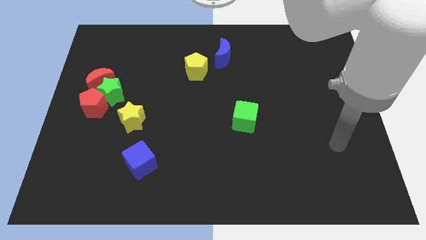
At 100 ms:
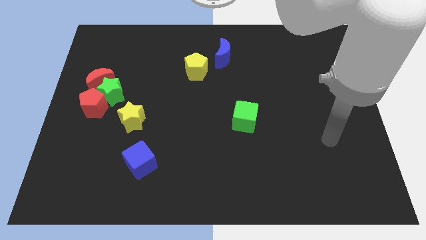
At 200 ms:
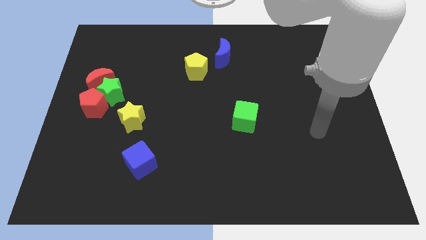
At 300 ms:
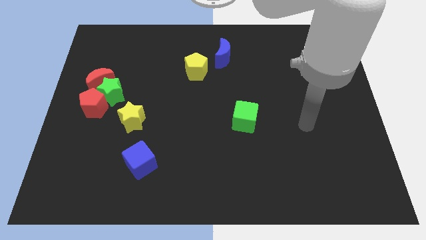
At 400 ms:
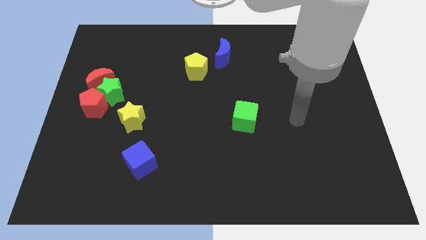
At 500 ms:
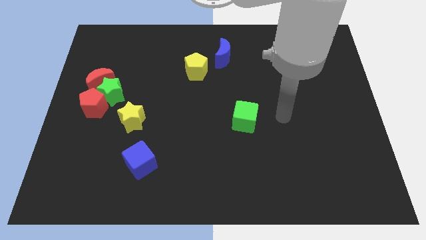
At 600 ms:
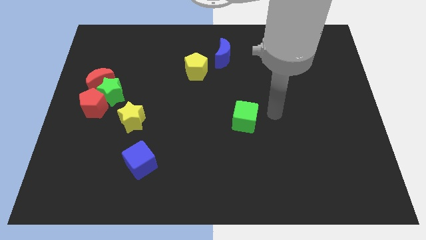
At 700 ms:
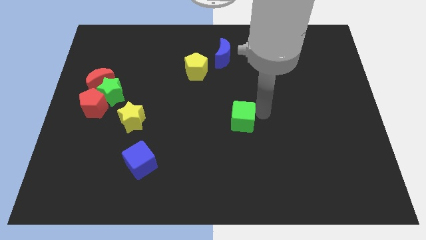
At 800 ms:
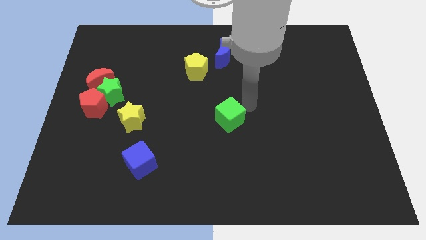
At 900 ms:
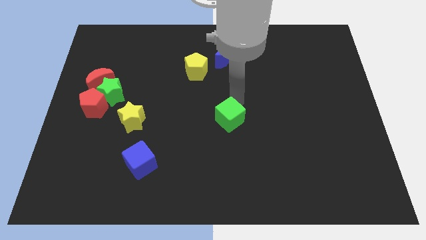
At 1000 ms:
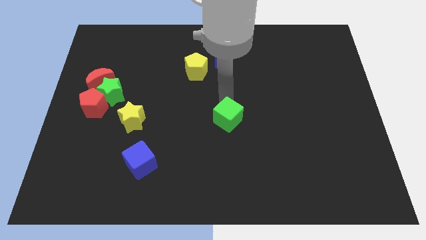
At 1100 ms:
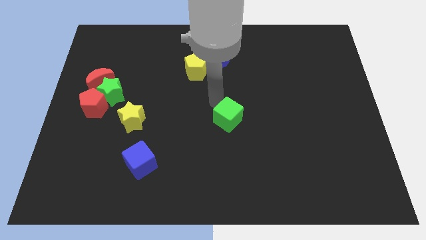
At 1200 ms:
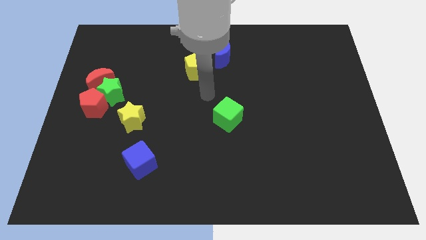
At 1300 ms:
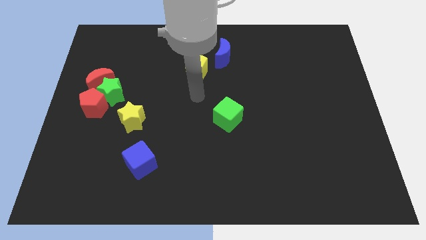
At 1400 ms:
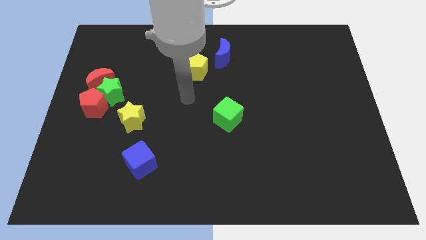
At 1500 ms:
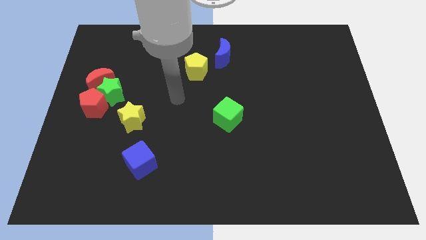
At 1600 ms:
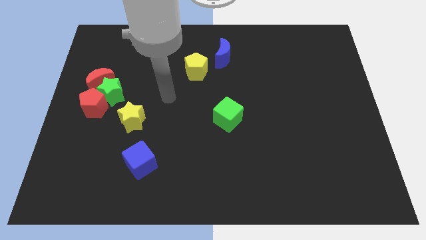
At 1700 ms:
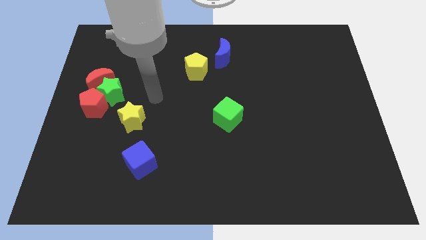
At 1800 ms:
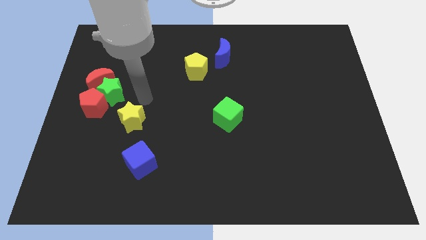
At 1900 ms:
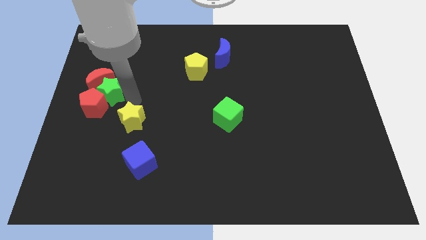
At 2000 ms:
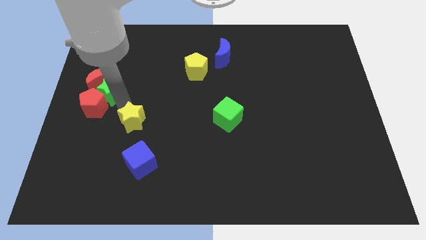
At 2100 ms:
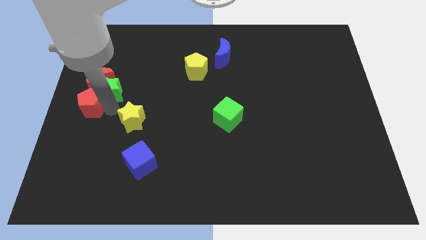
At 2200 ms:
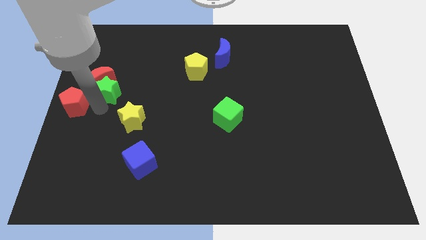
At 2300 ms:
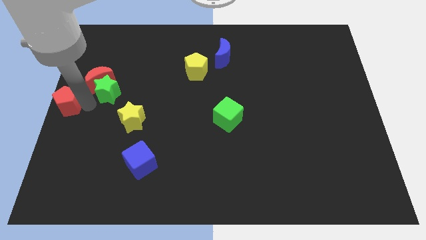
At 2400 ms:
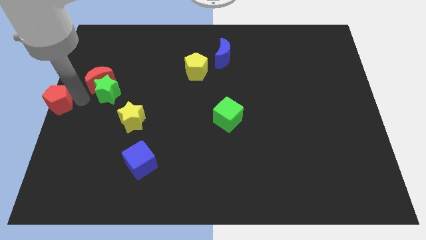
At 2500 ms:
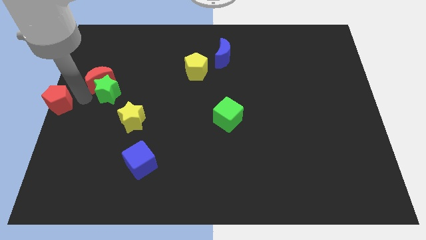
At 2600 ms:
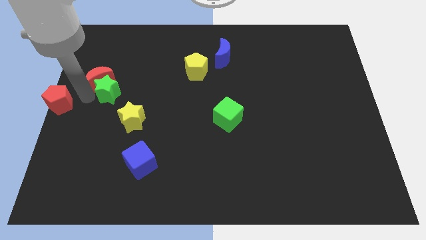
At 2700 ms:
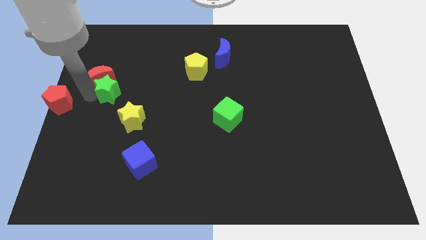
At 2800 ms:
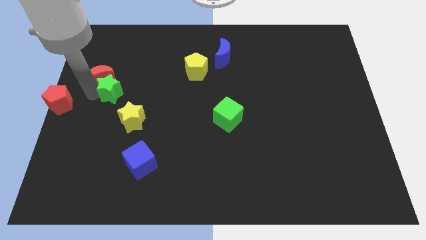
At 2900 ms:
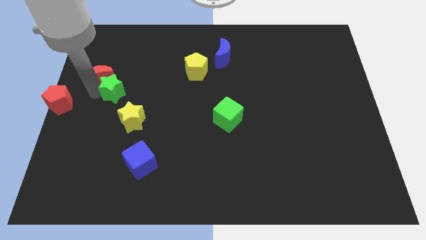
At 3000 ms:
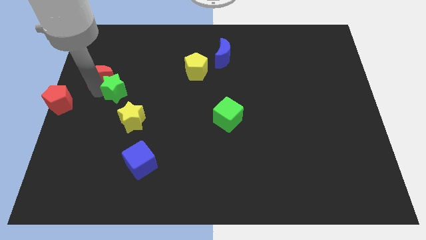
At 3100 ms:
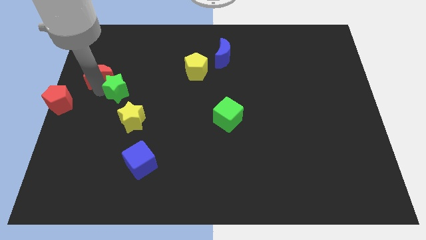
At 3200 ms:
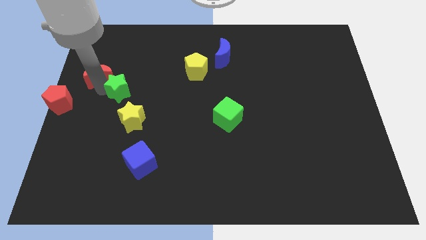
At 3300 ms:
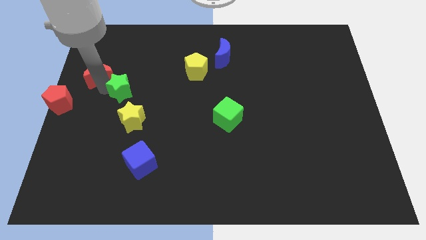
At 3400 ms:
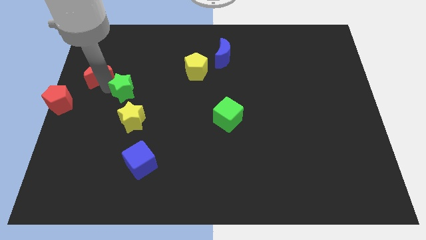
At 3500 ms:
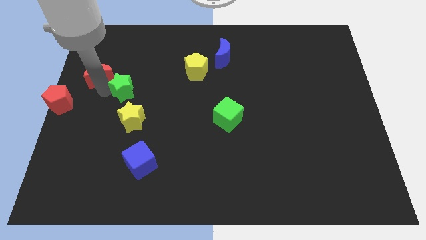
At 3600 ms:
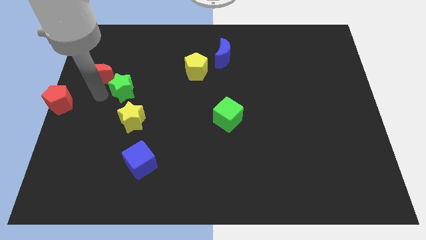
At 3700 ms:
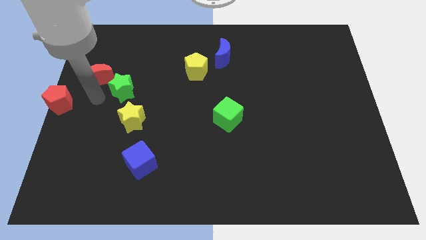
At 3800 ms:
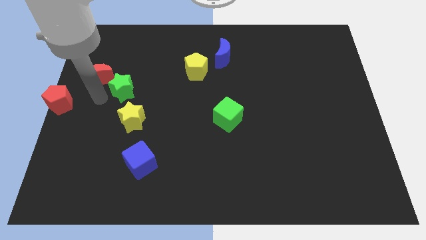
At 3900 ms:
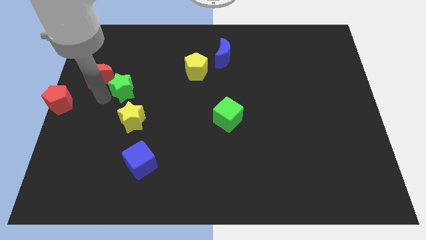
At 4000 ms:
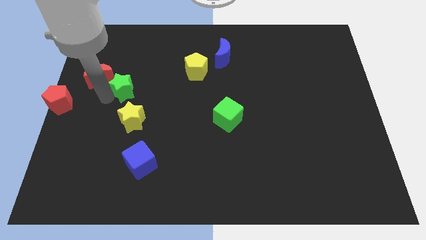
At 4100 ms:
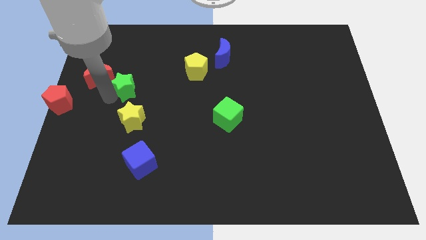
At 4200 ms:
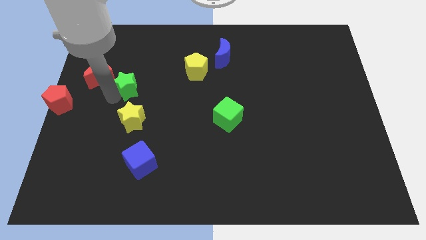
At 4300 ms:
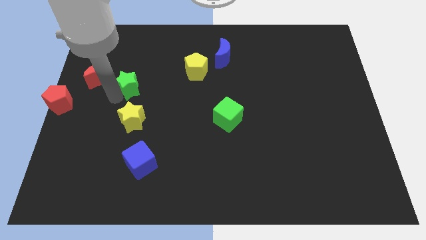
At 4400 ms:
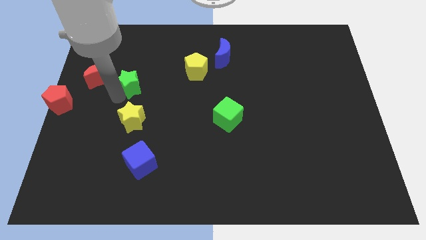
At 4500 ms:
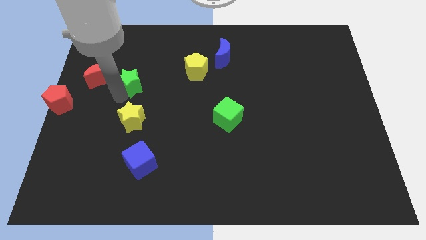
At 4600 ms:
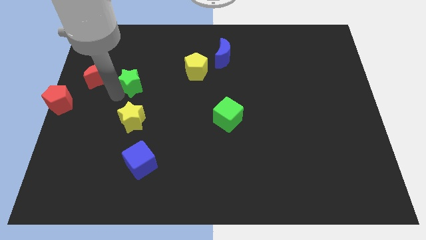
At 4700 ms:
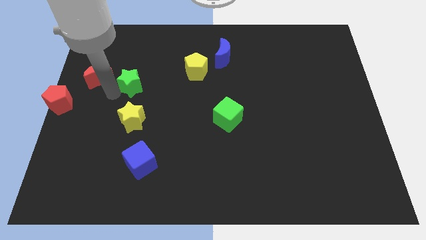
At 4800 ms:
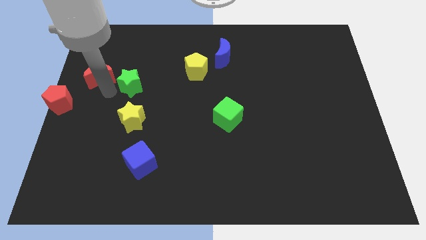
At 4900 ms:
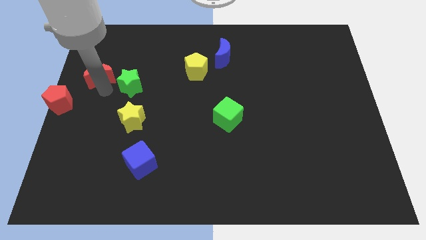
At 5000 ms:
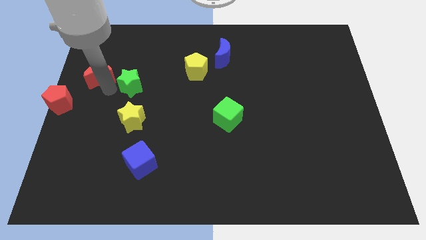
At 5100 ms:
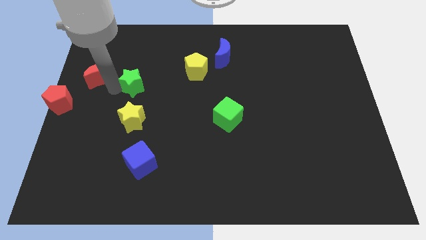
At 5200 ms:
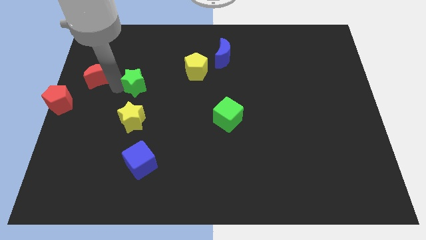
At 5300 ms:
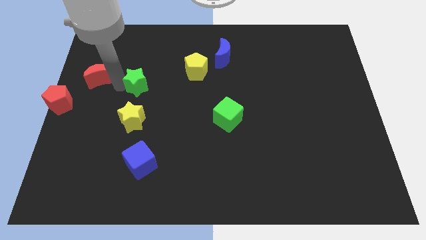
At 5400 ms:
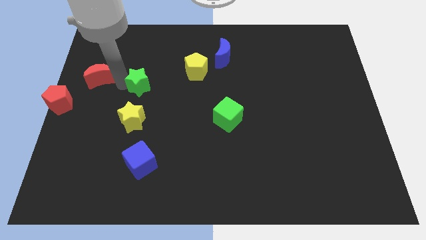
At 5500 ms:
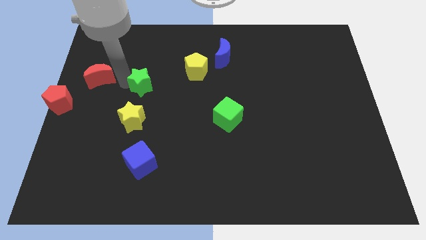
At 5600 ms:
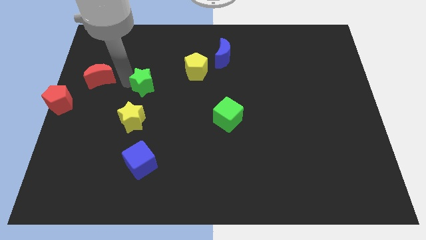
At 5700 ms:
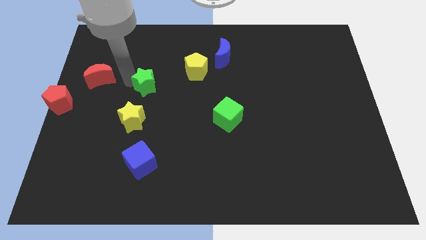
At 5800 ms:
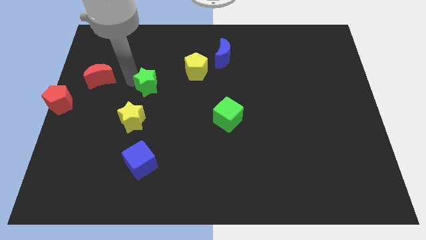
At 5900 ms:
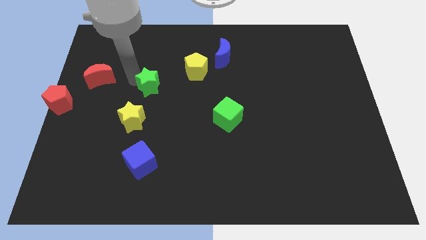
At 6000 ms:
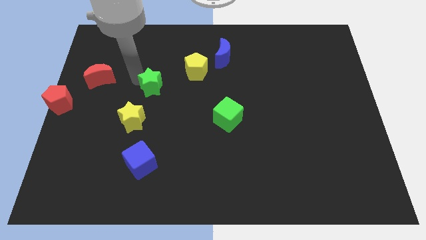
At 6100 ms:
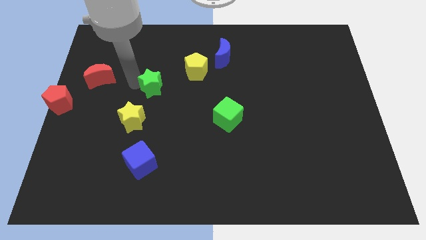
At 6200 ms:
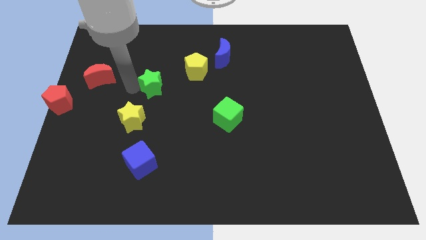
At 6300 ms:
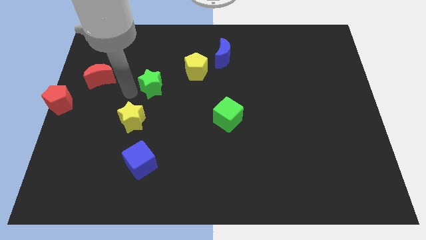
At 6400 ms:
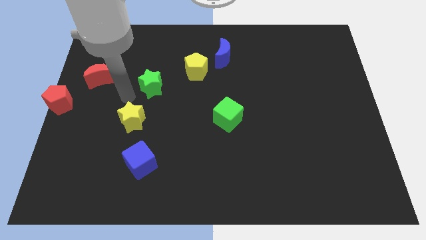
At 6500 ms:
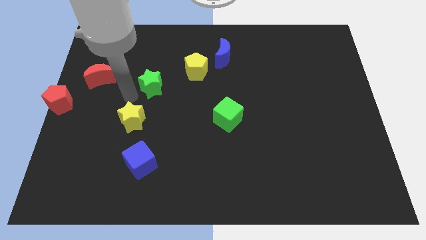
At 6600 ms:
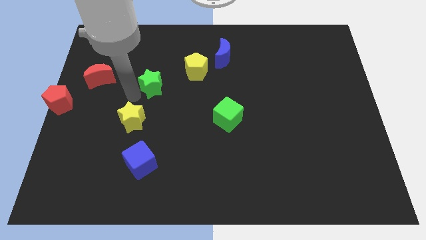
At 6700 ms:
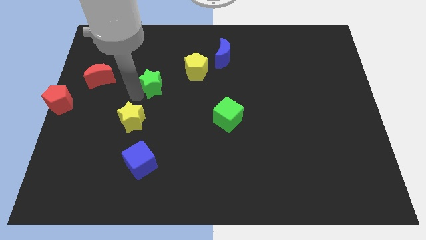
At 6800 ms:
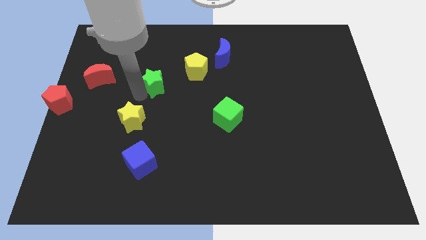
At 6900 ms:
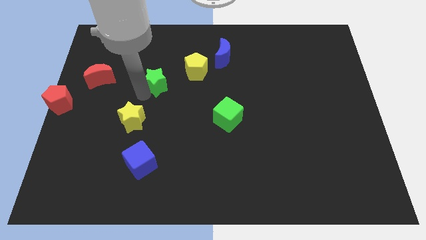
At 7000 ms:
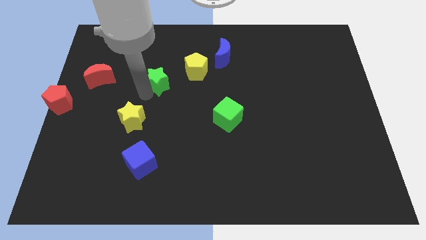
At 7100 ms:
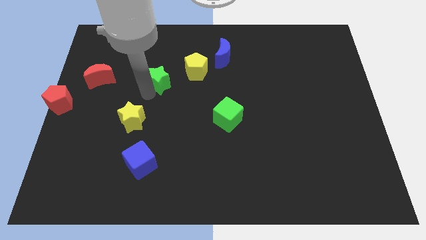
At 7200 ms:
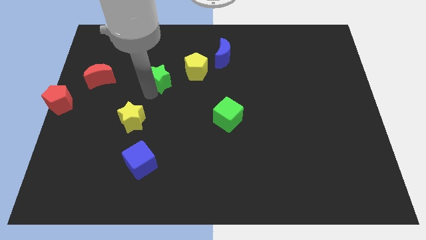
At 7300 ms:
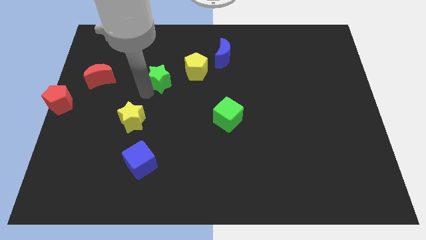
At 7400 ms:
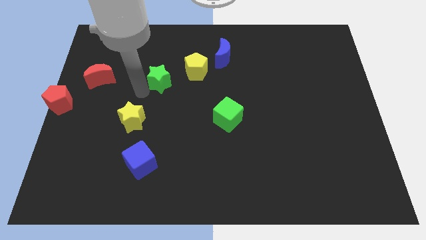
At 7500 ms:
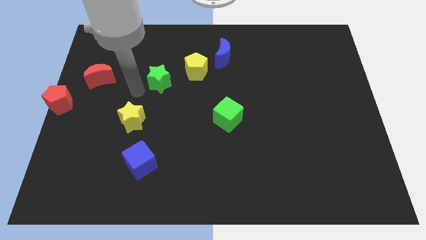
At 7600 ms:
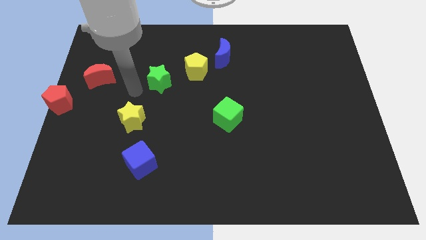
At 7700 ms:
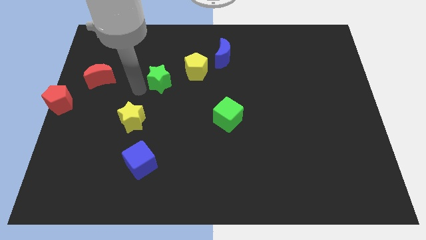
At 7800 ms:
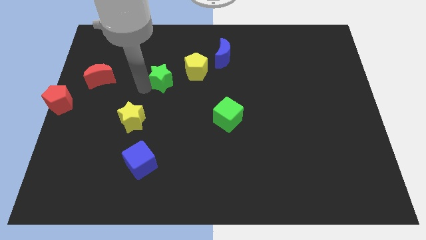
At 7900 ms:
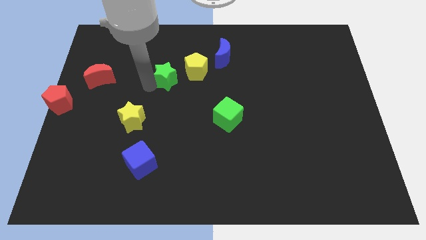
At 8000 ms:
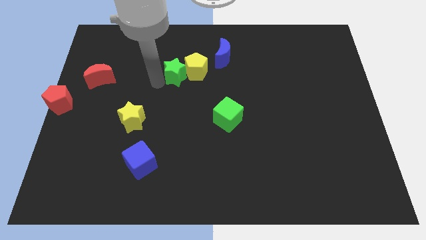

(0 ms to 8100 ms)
put the green star next to the yellow pentagon
